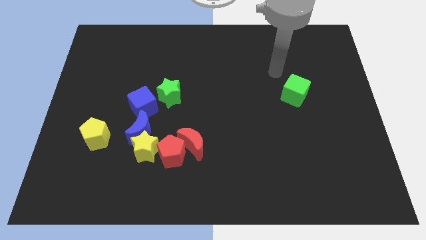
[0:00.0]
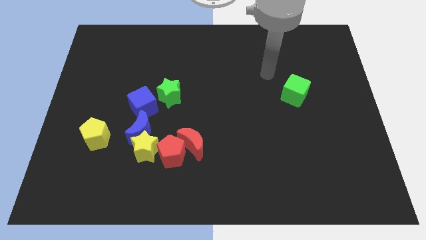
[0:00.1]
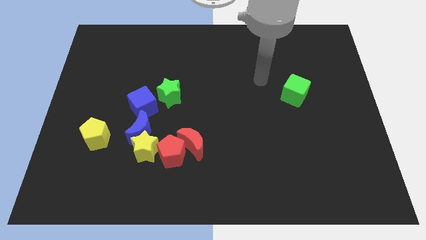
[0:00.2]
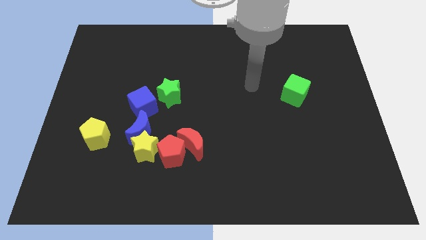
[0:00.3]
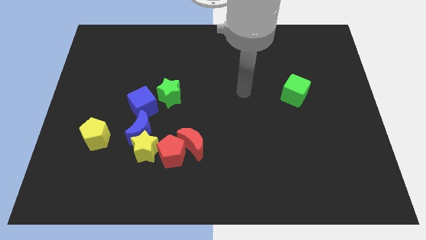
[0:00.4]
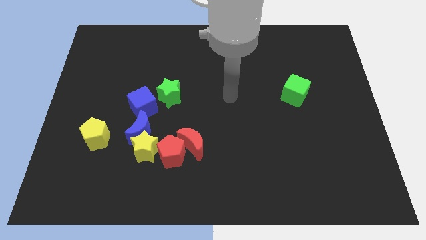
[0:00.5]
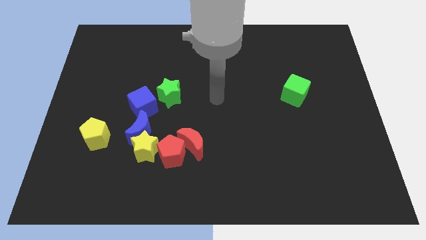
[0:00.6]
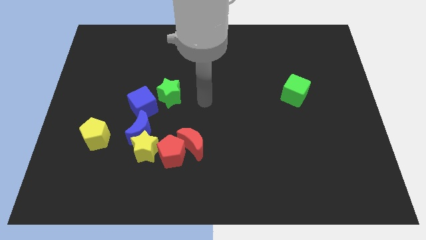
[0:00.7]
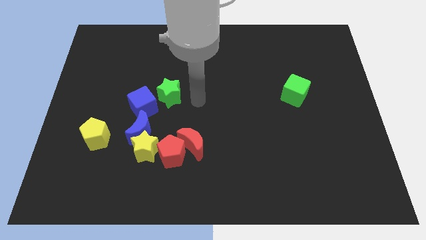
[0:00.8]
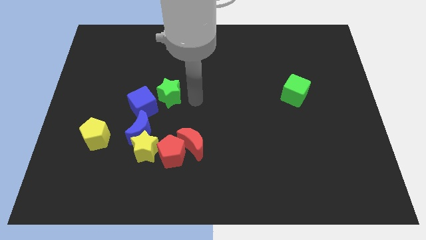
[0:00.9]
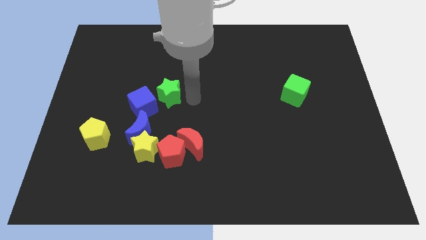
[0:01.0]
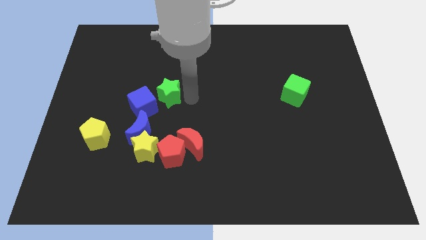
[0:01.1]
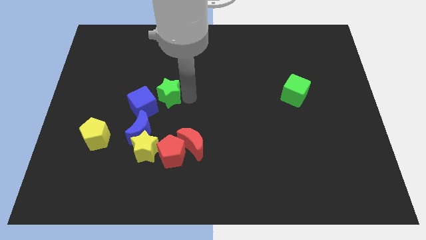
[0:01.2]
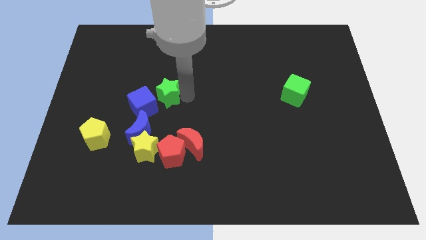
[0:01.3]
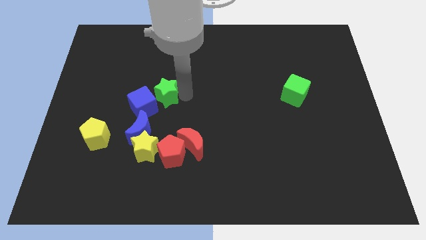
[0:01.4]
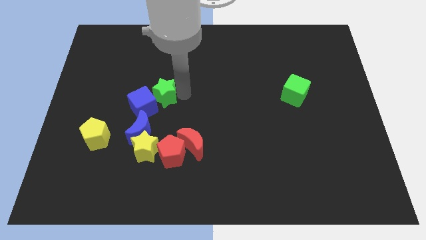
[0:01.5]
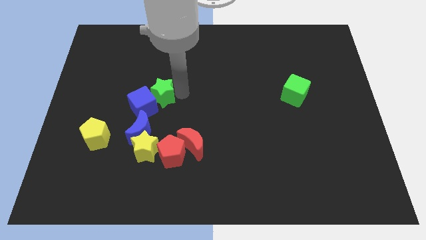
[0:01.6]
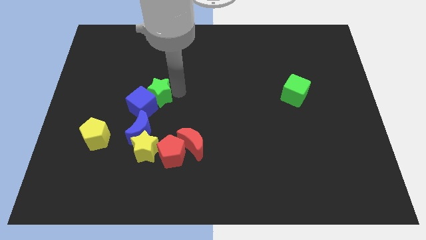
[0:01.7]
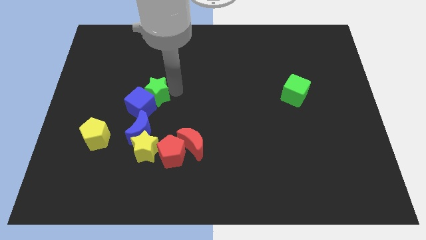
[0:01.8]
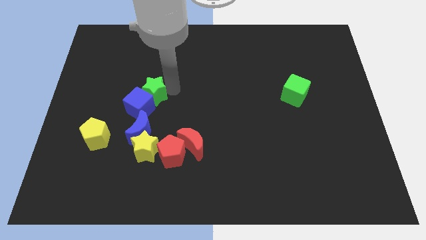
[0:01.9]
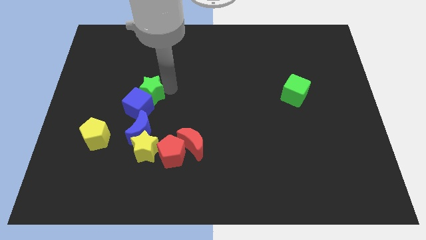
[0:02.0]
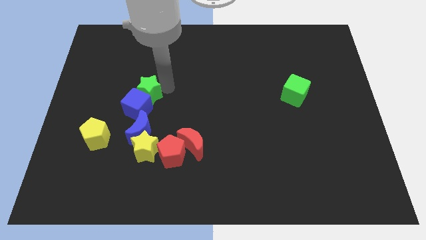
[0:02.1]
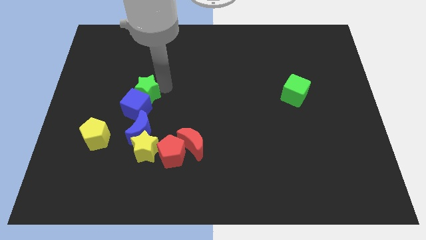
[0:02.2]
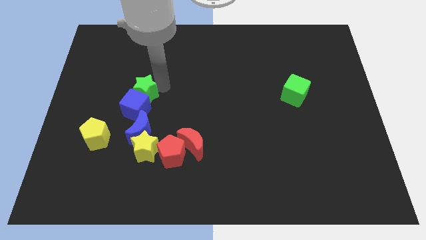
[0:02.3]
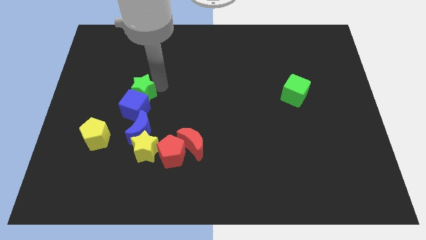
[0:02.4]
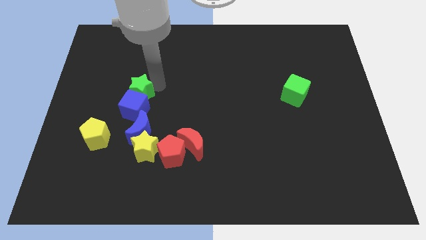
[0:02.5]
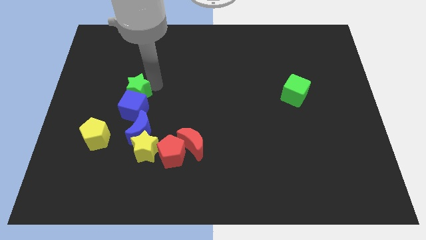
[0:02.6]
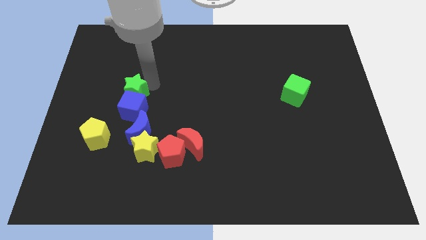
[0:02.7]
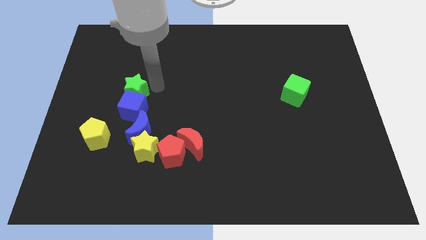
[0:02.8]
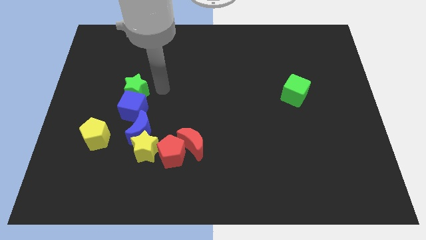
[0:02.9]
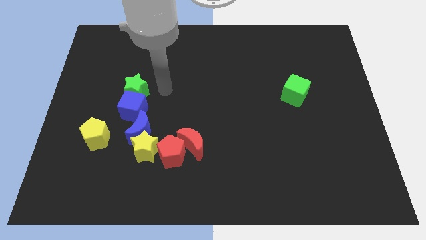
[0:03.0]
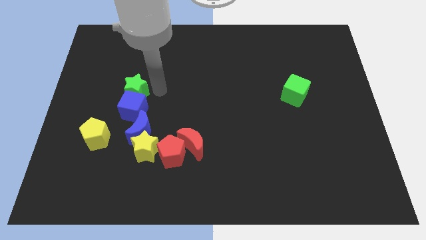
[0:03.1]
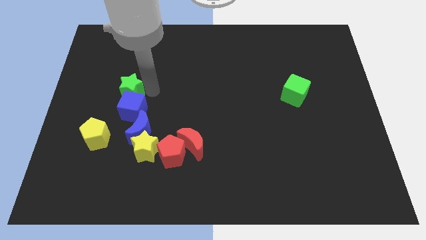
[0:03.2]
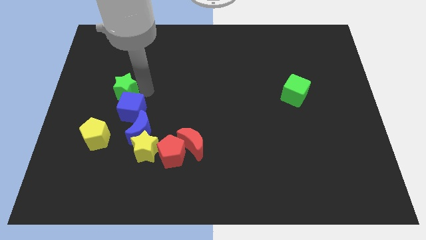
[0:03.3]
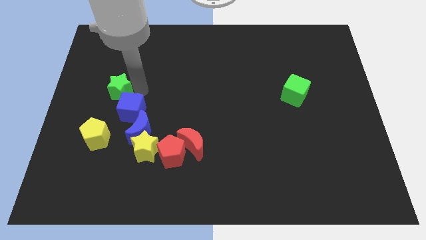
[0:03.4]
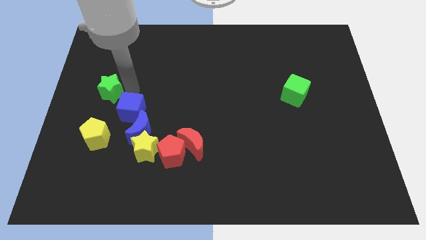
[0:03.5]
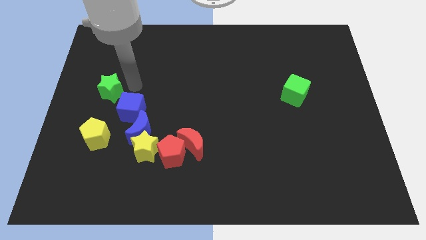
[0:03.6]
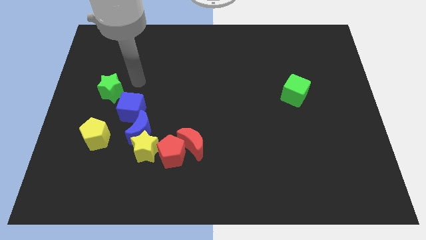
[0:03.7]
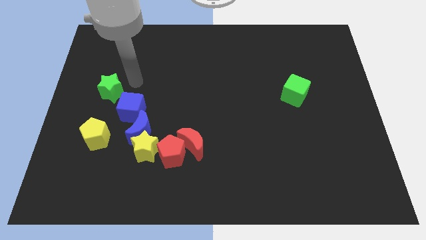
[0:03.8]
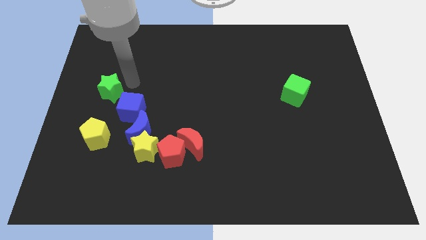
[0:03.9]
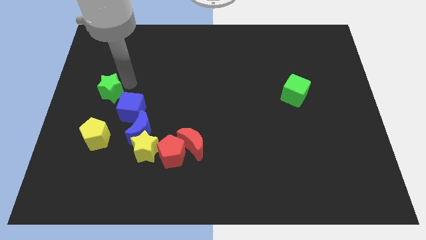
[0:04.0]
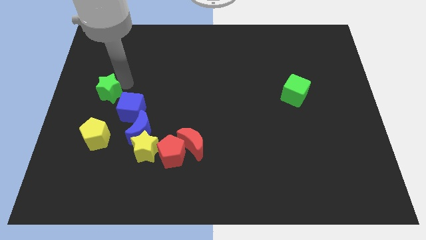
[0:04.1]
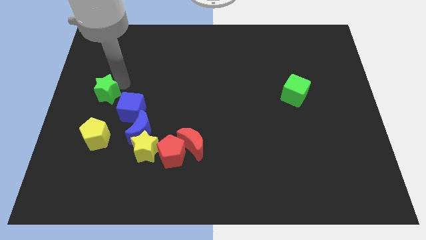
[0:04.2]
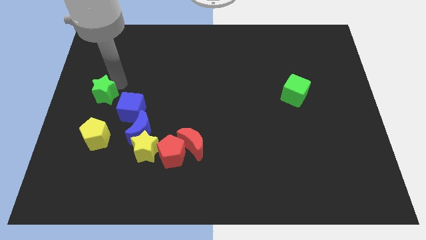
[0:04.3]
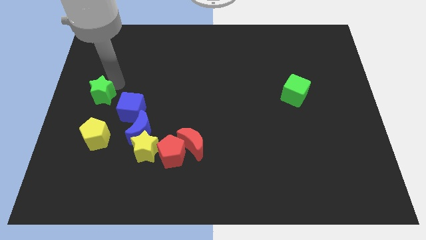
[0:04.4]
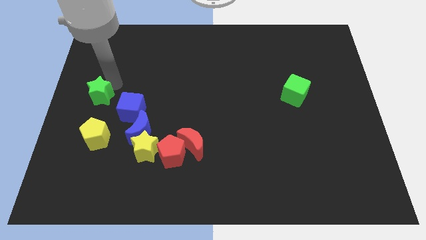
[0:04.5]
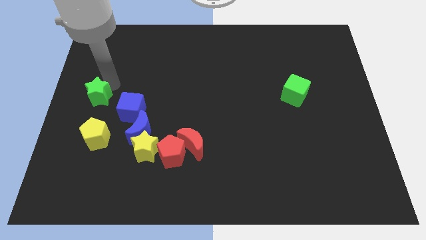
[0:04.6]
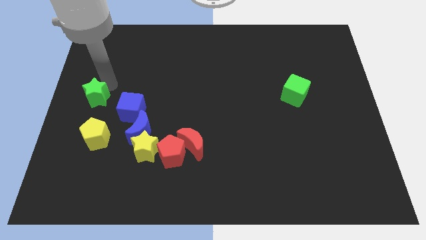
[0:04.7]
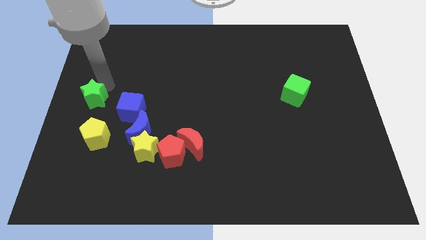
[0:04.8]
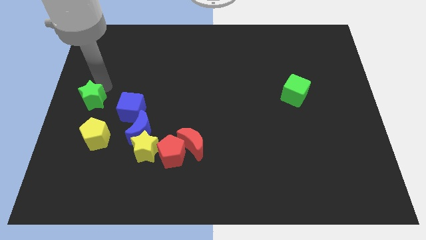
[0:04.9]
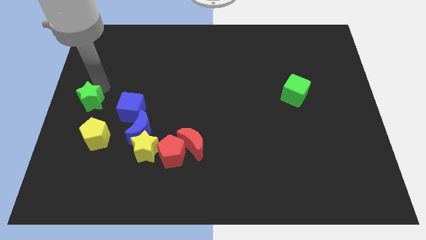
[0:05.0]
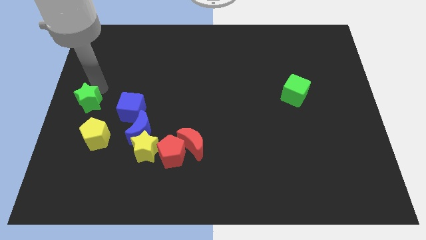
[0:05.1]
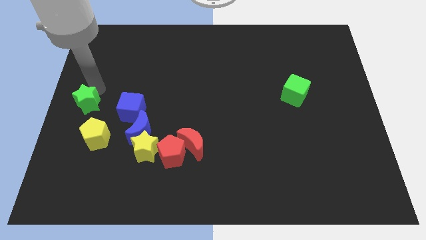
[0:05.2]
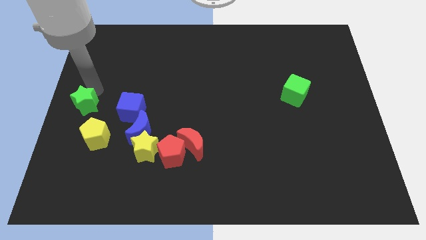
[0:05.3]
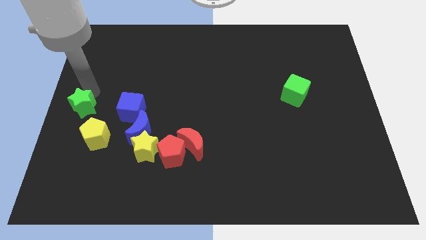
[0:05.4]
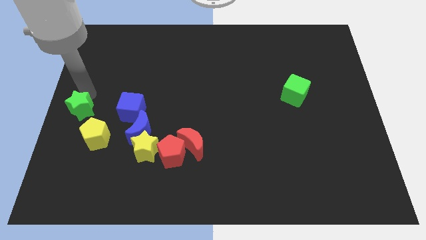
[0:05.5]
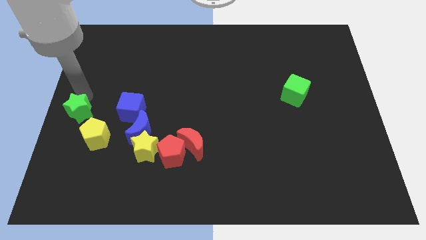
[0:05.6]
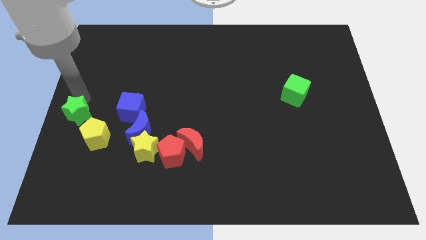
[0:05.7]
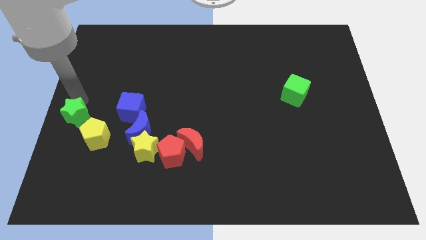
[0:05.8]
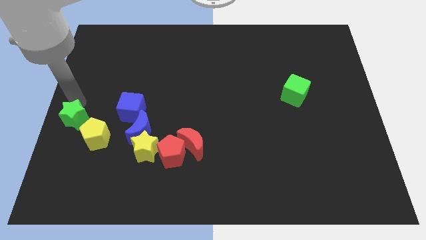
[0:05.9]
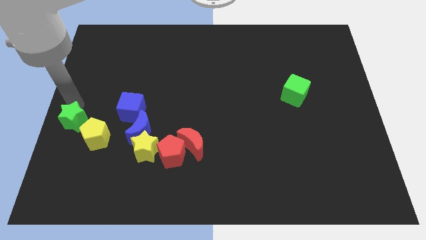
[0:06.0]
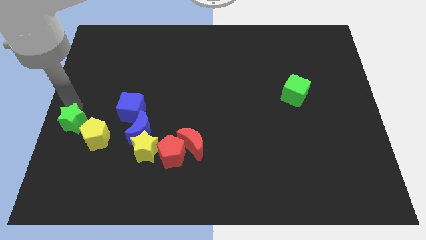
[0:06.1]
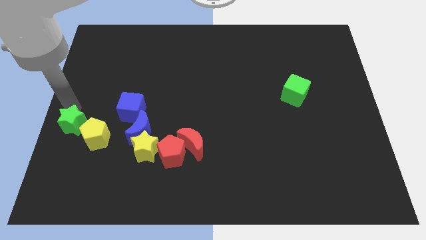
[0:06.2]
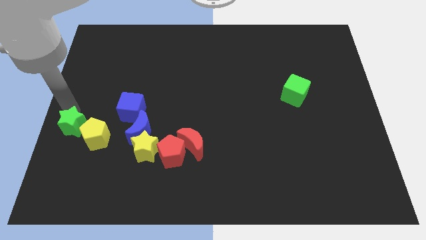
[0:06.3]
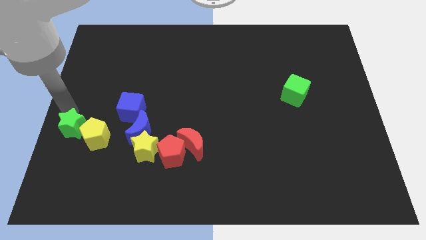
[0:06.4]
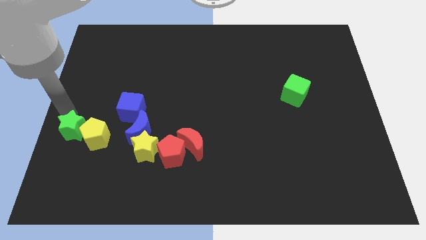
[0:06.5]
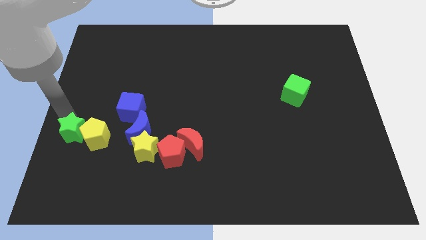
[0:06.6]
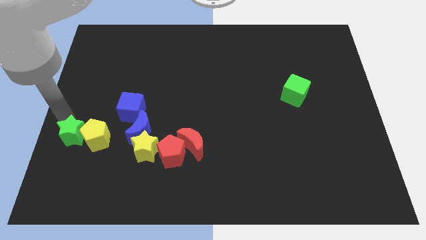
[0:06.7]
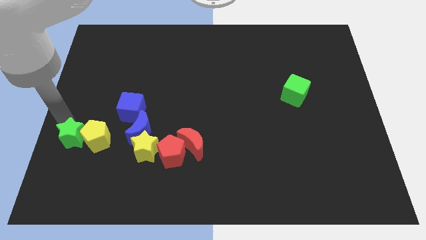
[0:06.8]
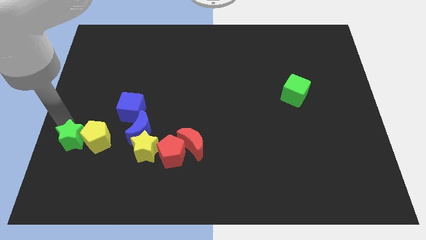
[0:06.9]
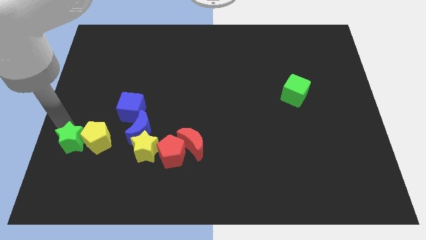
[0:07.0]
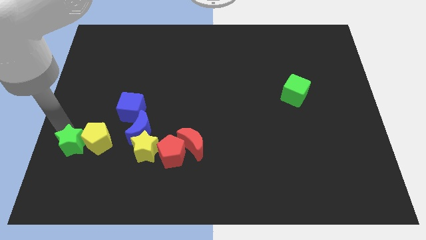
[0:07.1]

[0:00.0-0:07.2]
push the green star to the left of the yellow star
